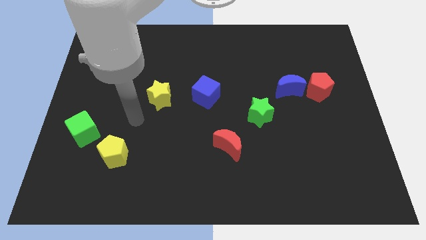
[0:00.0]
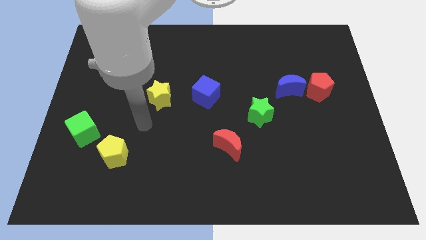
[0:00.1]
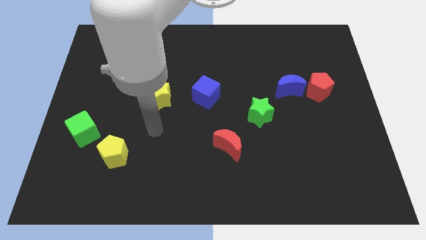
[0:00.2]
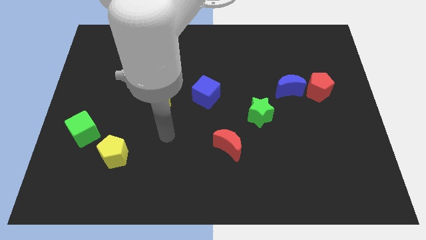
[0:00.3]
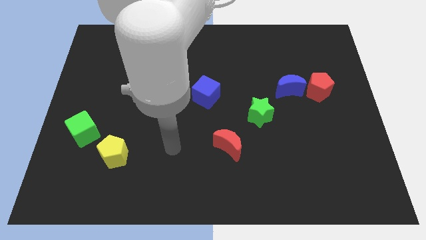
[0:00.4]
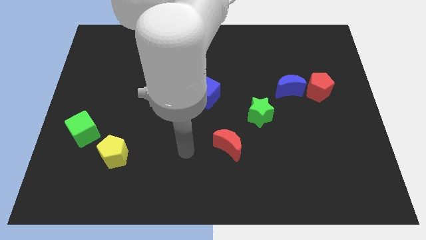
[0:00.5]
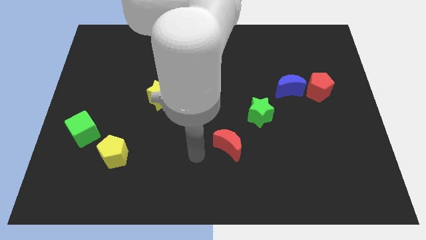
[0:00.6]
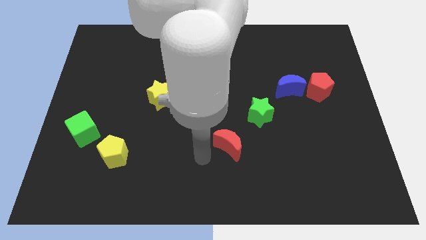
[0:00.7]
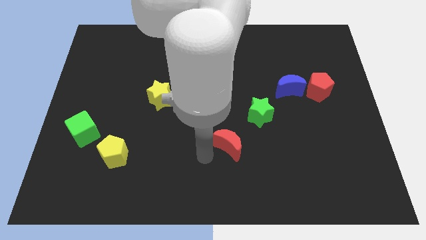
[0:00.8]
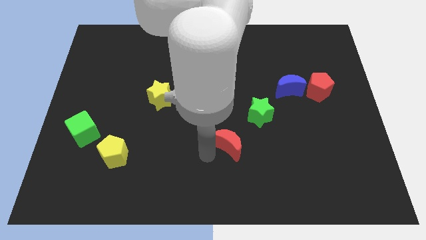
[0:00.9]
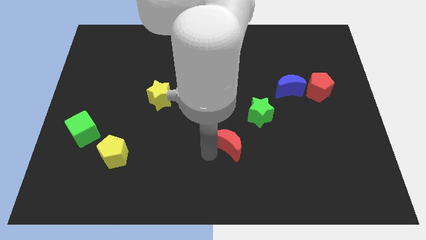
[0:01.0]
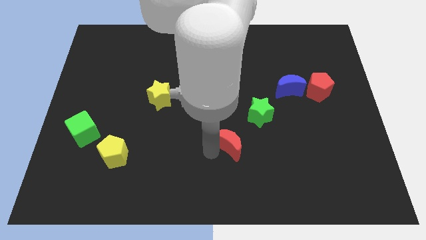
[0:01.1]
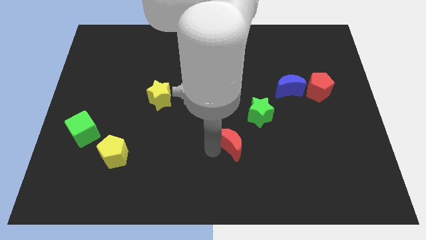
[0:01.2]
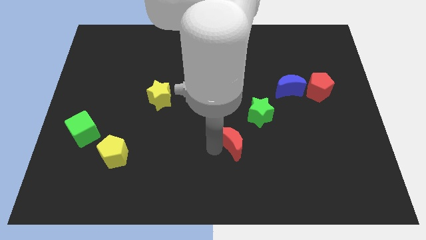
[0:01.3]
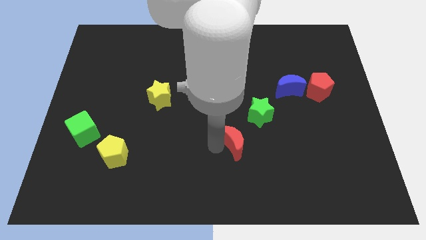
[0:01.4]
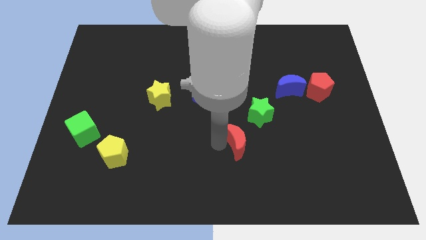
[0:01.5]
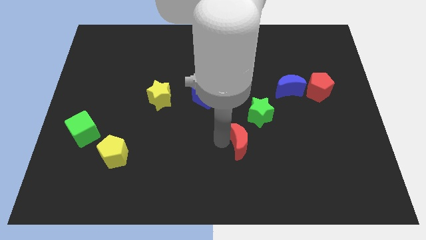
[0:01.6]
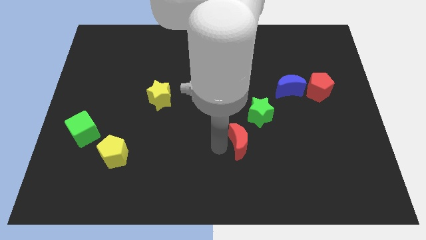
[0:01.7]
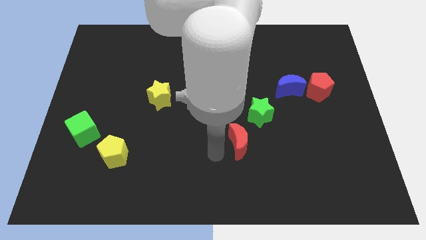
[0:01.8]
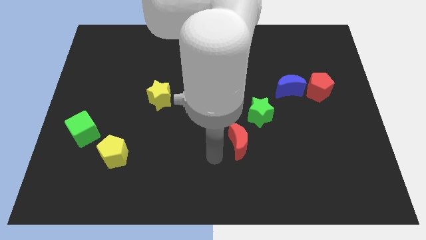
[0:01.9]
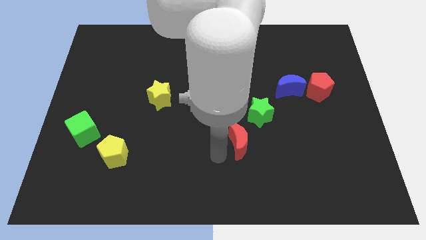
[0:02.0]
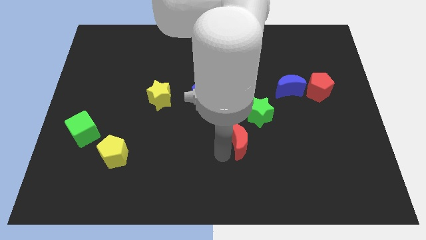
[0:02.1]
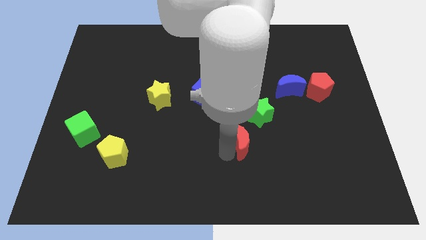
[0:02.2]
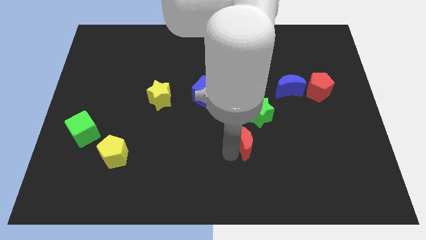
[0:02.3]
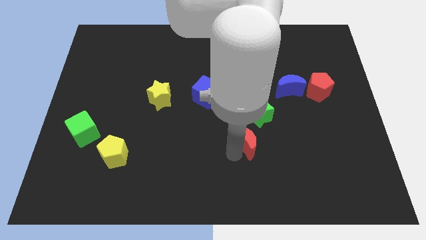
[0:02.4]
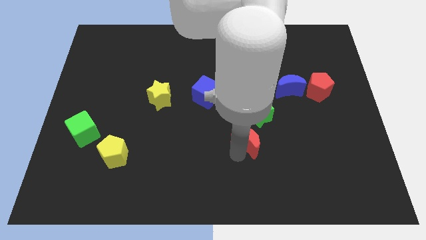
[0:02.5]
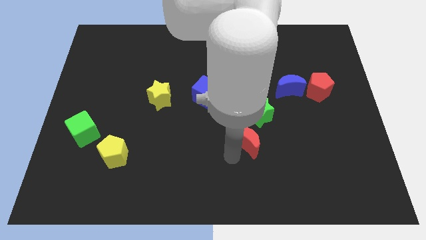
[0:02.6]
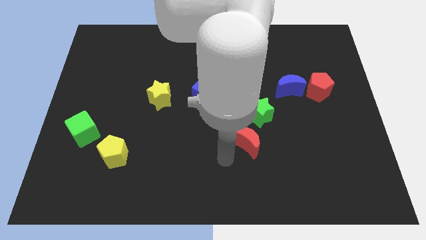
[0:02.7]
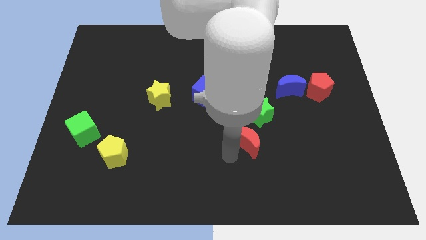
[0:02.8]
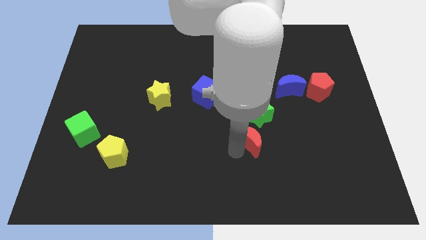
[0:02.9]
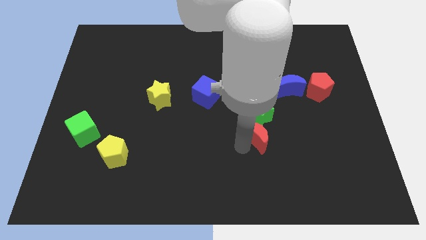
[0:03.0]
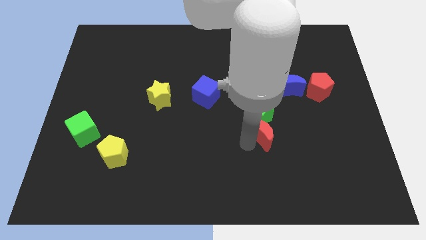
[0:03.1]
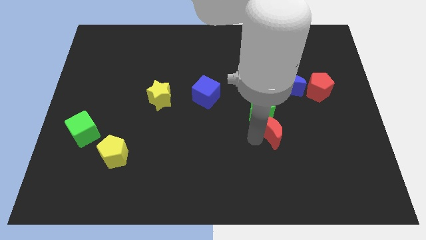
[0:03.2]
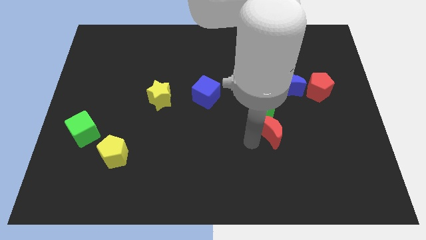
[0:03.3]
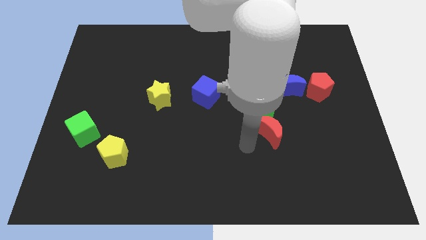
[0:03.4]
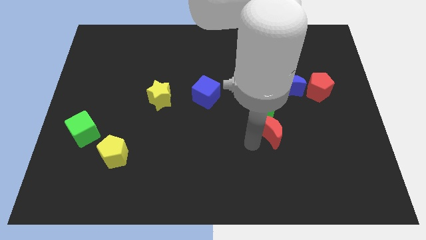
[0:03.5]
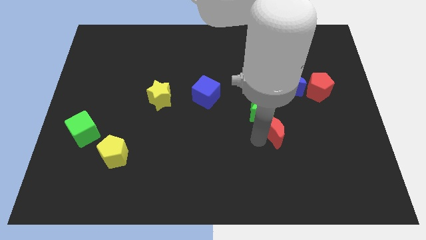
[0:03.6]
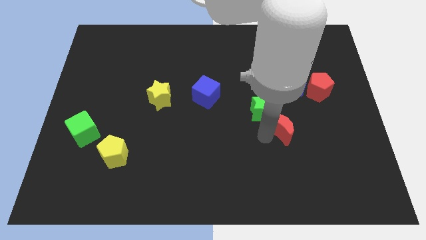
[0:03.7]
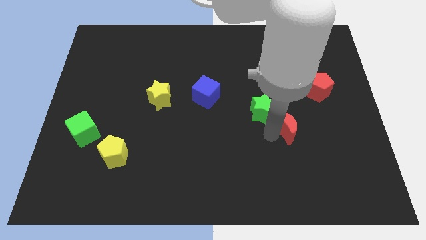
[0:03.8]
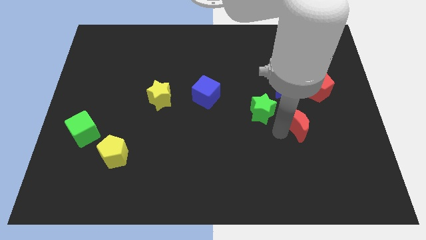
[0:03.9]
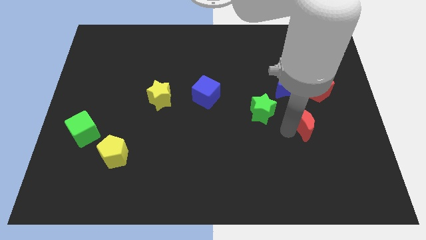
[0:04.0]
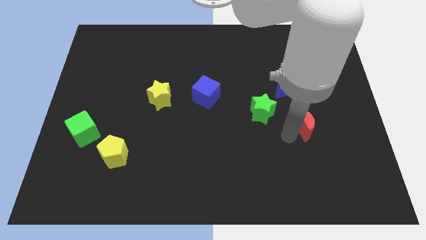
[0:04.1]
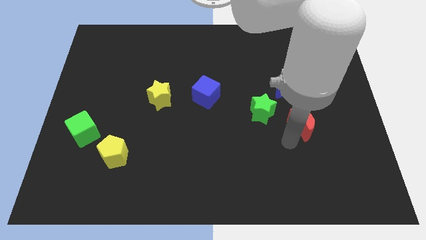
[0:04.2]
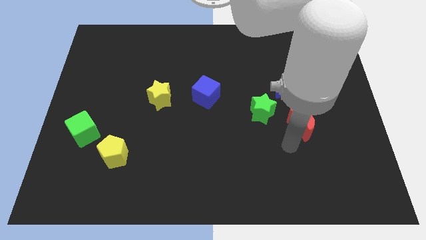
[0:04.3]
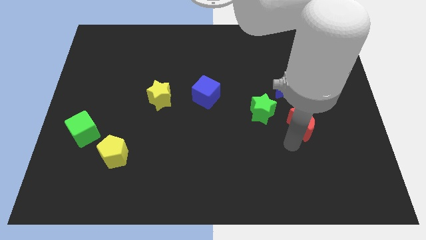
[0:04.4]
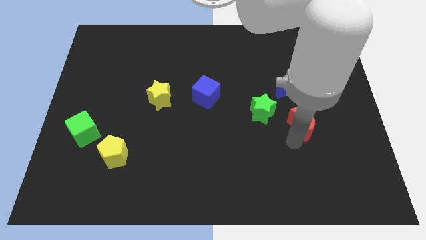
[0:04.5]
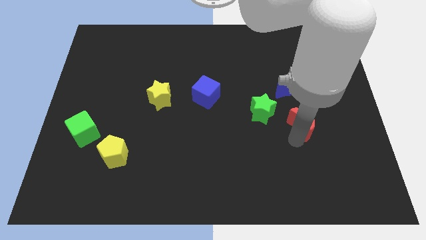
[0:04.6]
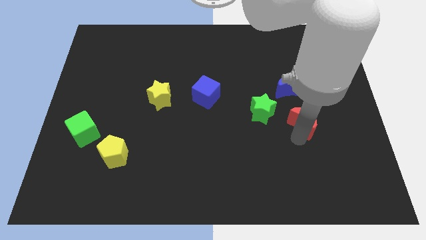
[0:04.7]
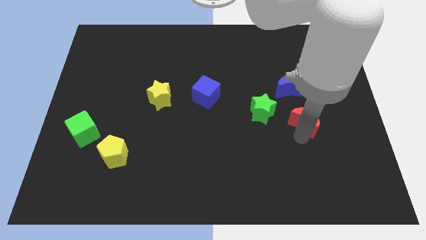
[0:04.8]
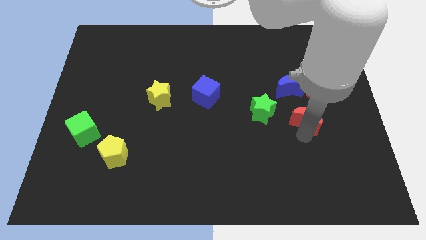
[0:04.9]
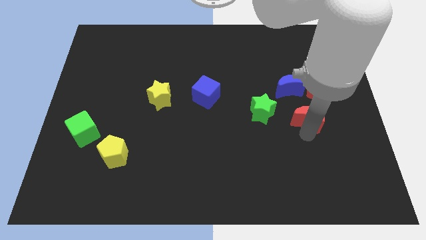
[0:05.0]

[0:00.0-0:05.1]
push the red moon diagonally down and to the right of the blue moon

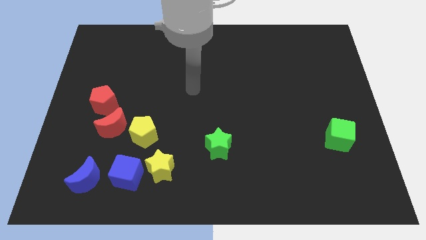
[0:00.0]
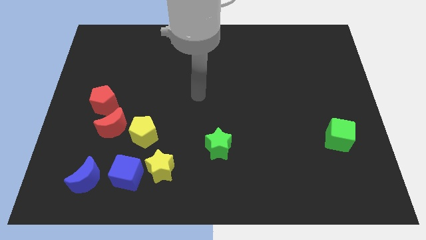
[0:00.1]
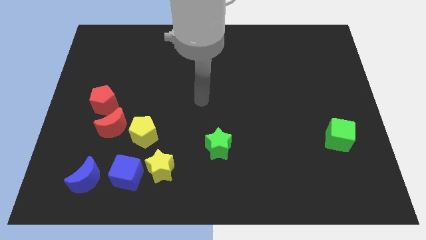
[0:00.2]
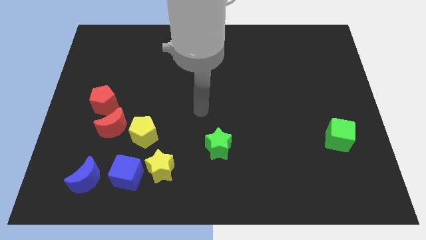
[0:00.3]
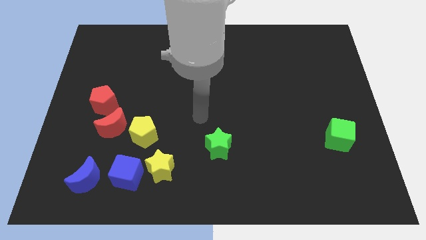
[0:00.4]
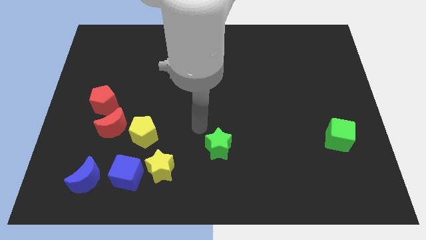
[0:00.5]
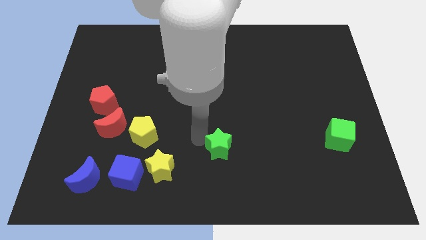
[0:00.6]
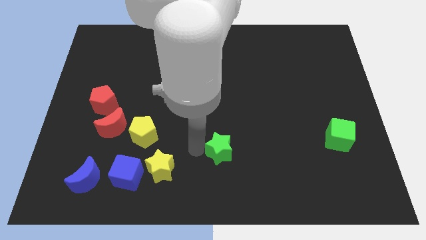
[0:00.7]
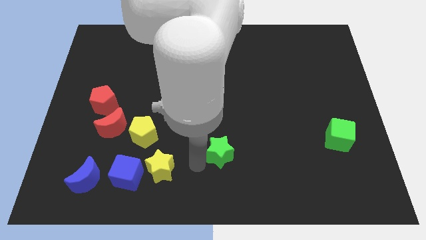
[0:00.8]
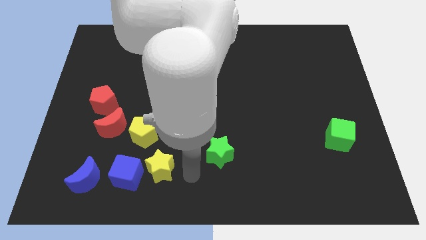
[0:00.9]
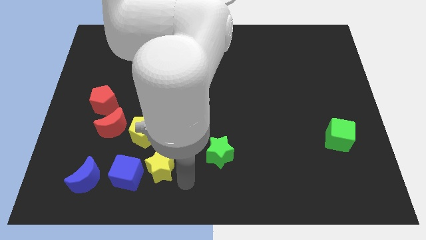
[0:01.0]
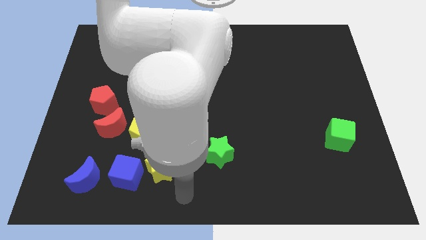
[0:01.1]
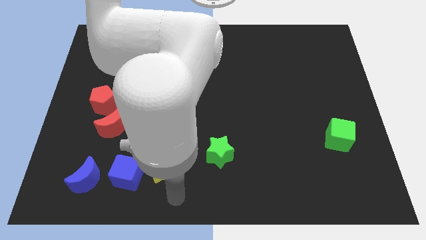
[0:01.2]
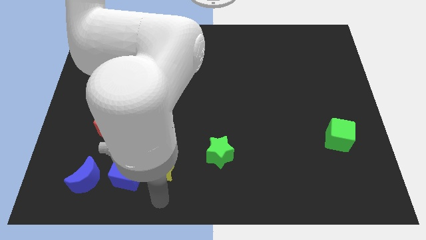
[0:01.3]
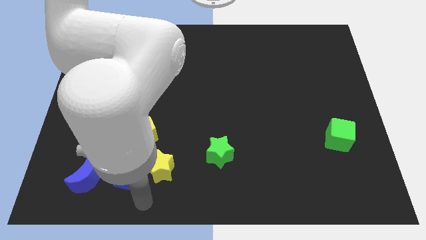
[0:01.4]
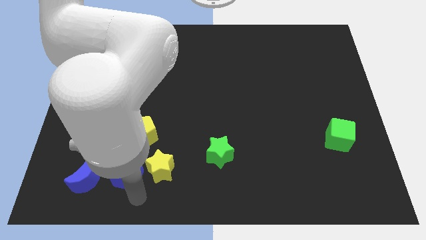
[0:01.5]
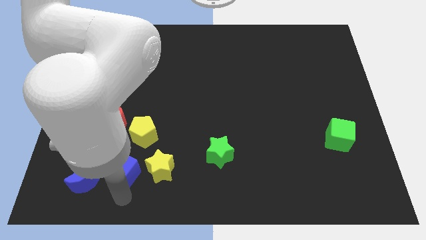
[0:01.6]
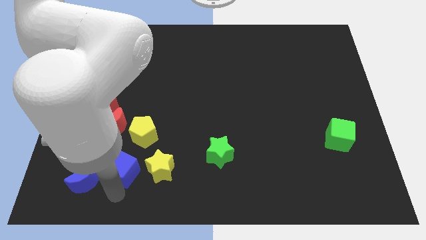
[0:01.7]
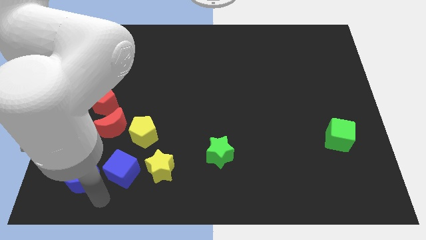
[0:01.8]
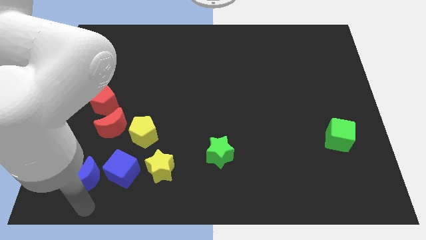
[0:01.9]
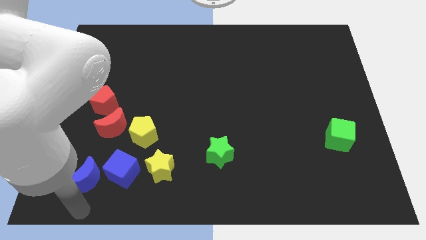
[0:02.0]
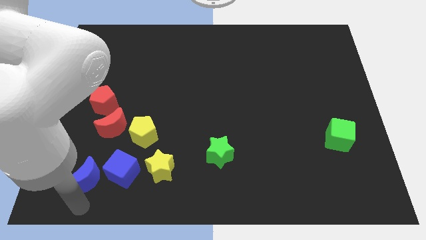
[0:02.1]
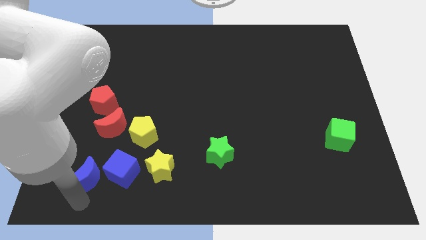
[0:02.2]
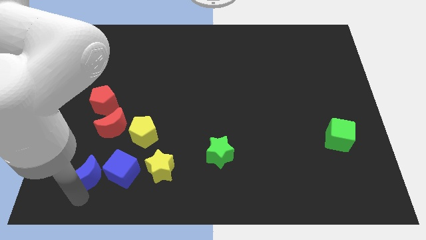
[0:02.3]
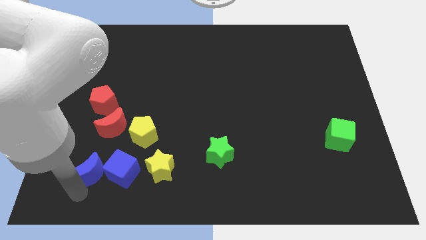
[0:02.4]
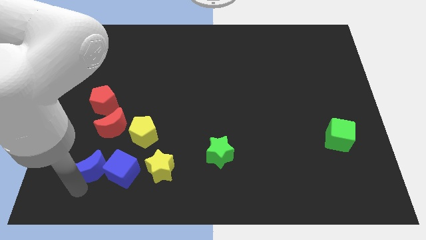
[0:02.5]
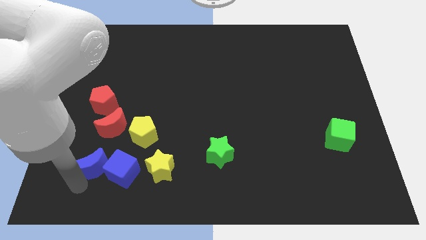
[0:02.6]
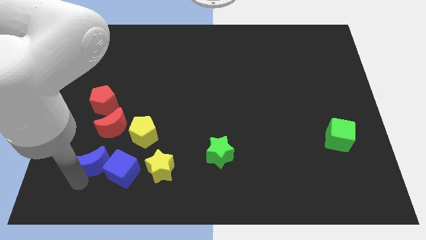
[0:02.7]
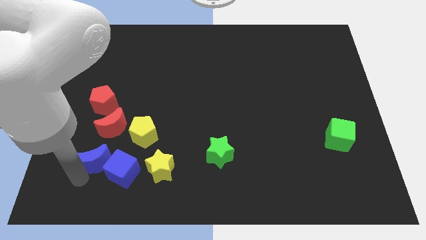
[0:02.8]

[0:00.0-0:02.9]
put the blue moon below the red pentagon

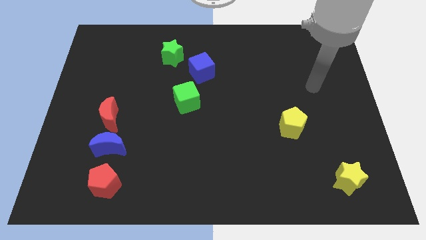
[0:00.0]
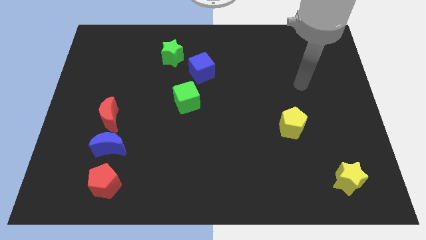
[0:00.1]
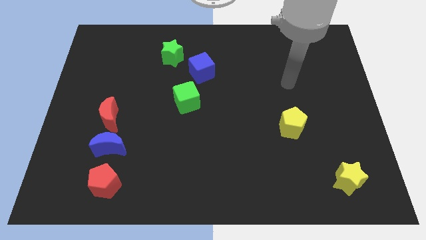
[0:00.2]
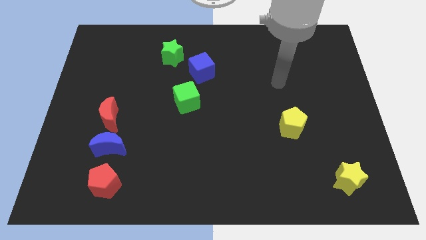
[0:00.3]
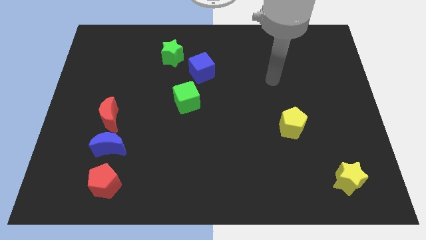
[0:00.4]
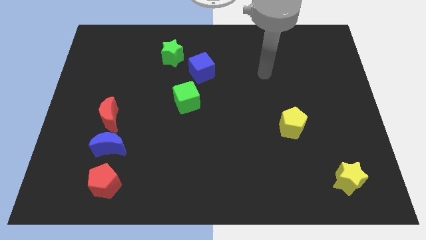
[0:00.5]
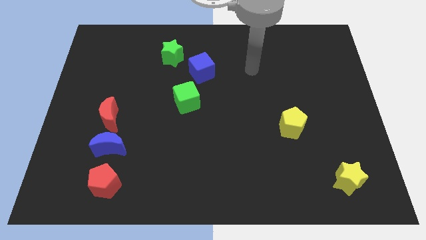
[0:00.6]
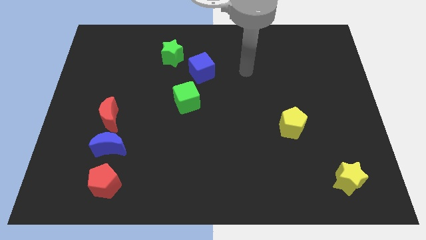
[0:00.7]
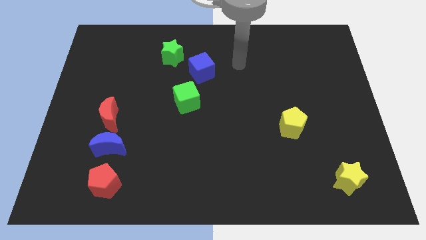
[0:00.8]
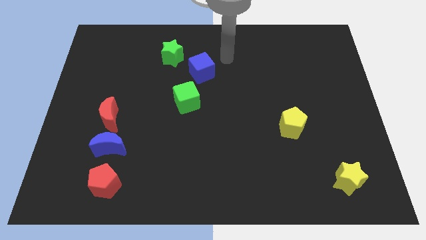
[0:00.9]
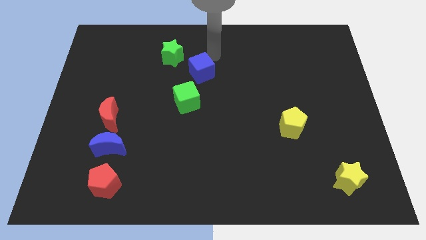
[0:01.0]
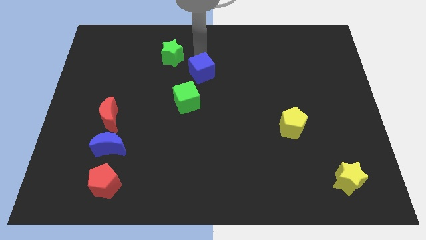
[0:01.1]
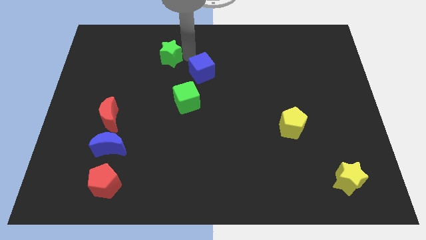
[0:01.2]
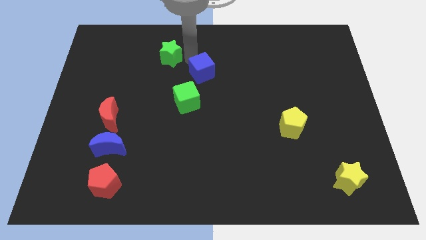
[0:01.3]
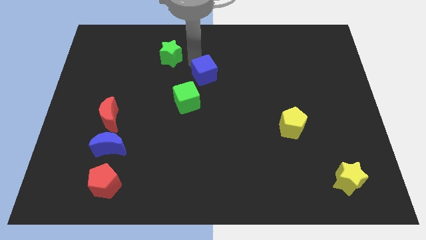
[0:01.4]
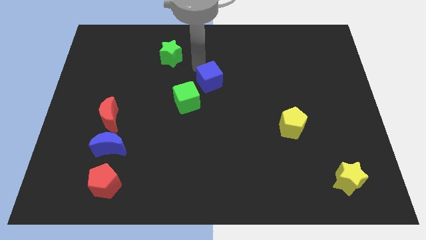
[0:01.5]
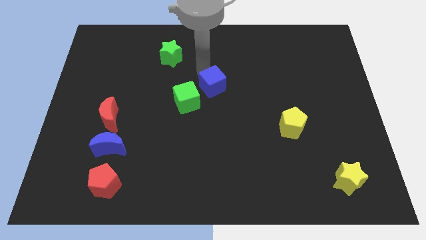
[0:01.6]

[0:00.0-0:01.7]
move the blue cube just right of the green cube
